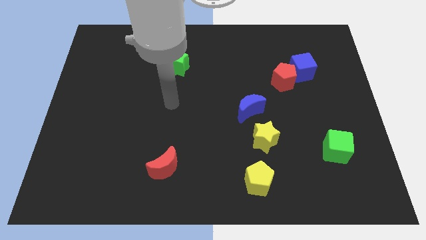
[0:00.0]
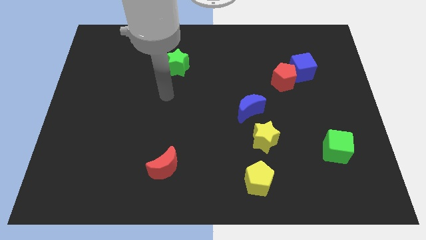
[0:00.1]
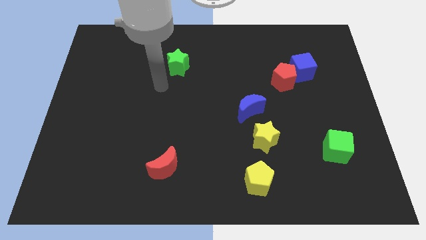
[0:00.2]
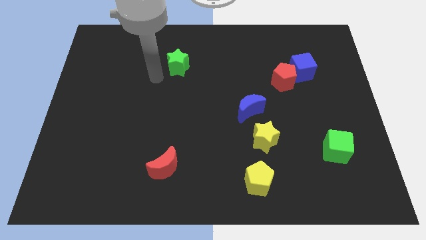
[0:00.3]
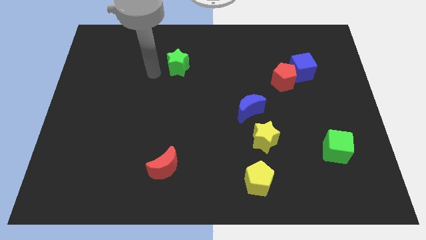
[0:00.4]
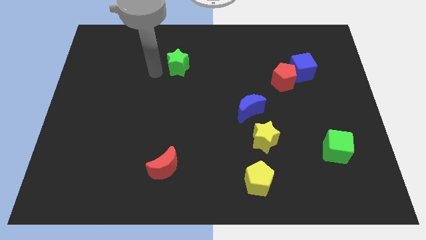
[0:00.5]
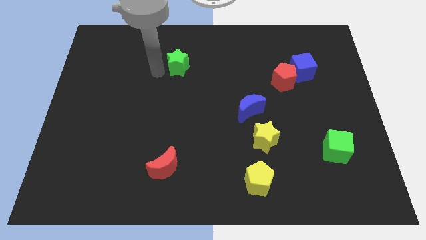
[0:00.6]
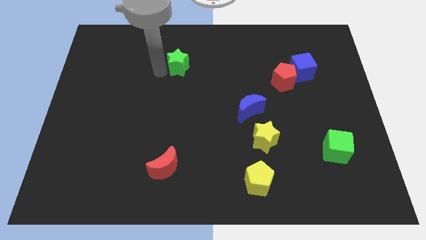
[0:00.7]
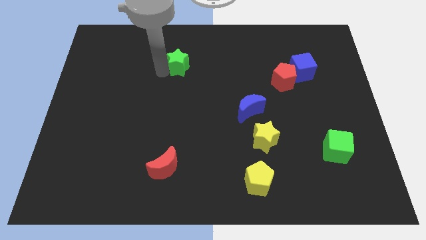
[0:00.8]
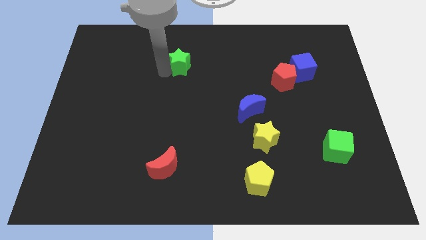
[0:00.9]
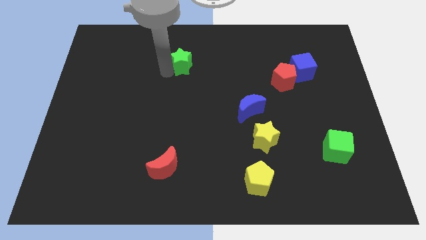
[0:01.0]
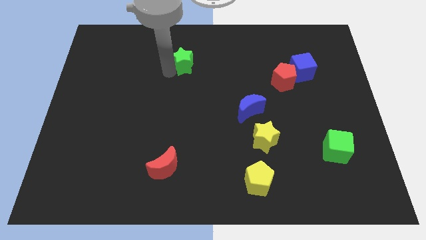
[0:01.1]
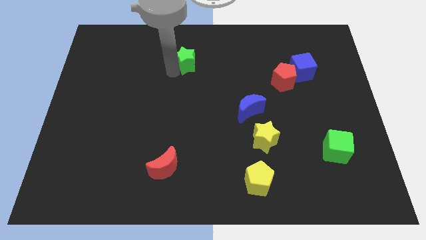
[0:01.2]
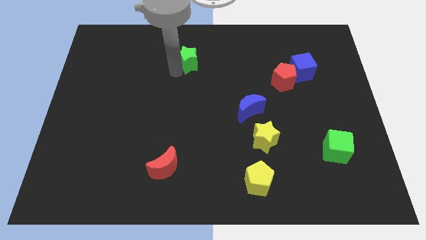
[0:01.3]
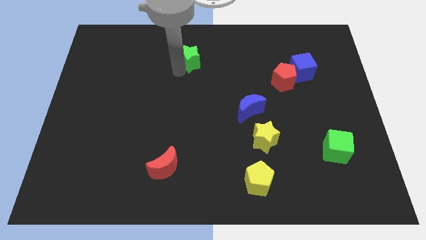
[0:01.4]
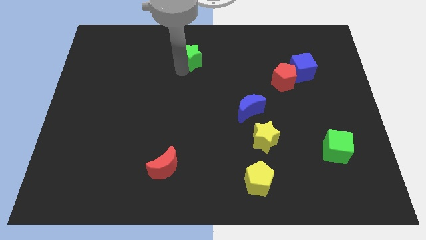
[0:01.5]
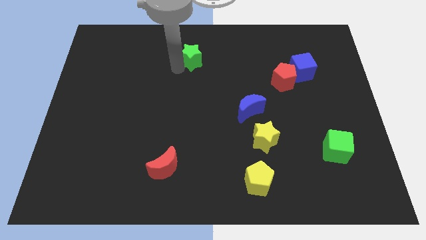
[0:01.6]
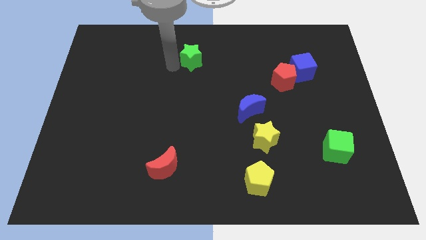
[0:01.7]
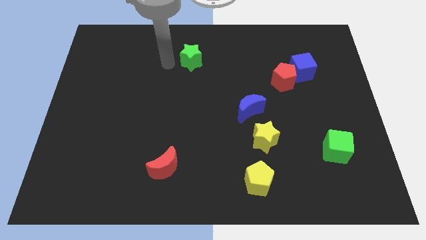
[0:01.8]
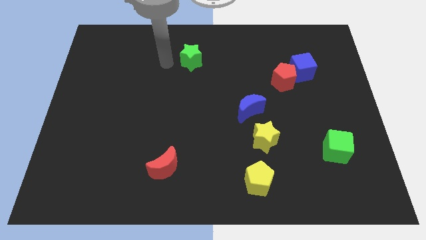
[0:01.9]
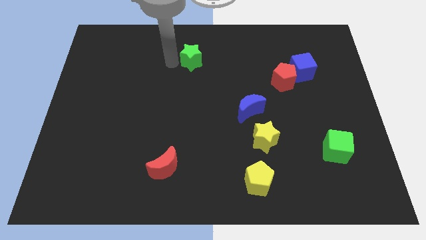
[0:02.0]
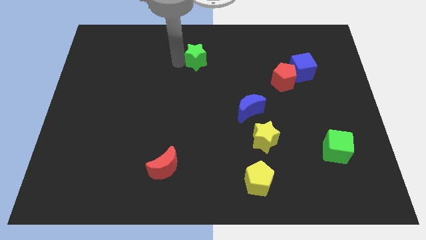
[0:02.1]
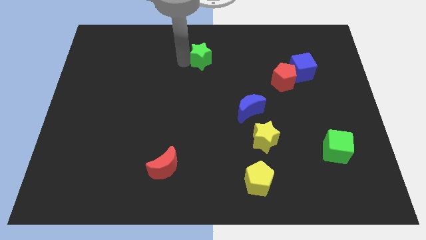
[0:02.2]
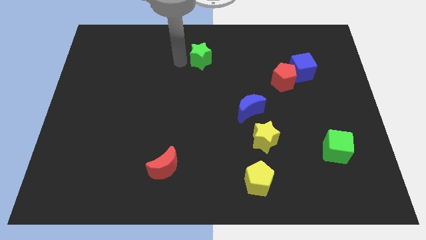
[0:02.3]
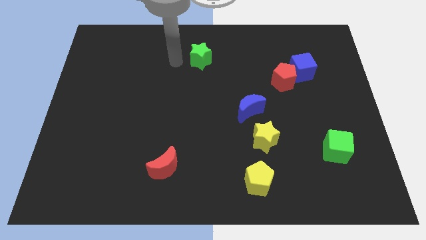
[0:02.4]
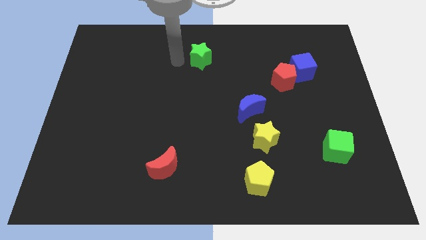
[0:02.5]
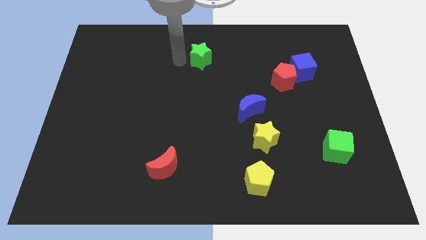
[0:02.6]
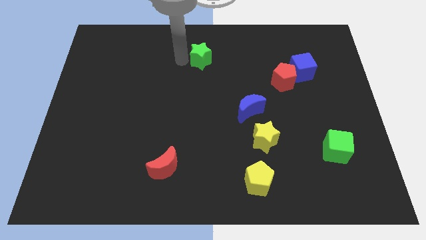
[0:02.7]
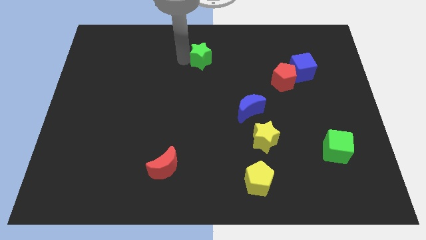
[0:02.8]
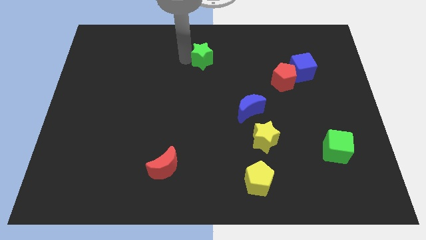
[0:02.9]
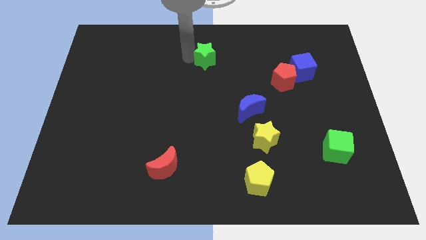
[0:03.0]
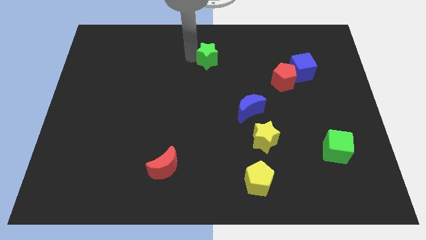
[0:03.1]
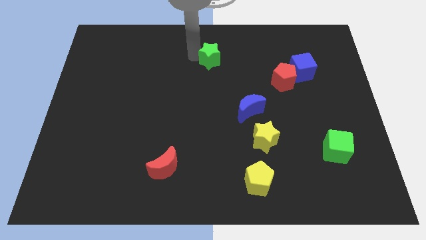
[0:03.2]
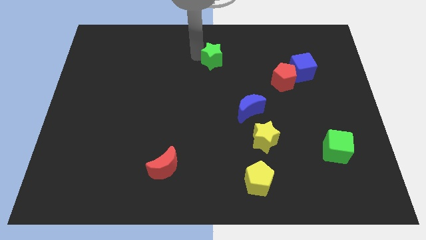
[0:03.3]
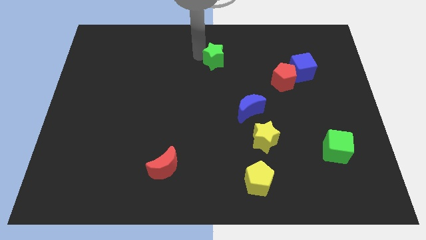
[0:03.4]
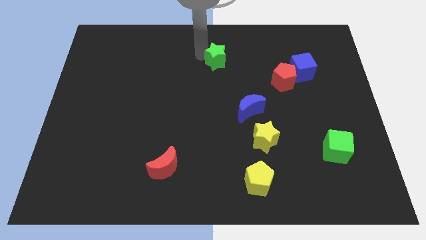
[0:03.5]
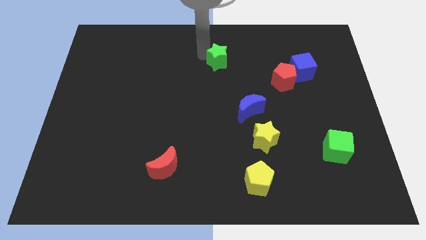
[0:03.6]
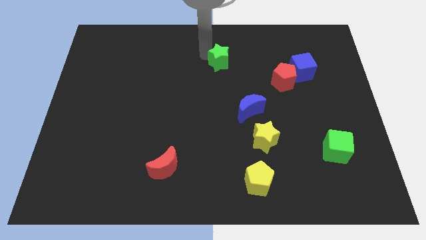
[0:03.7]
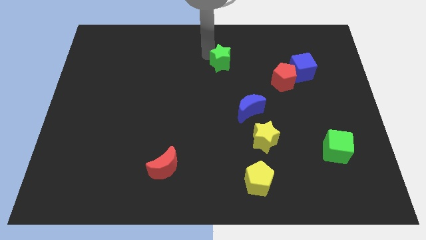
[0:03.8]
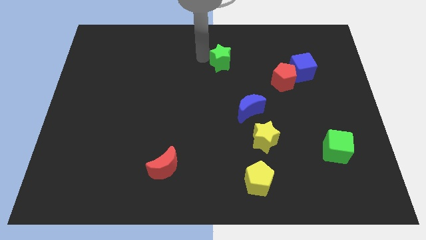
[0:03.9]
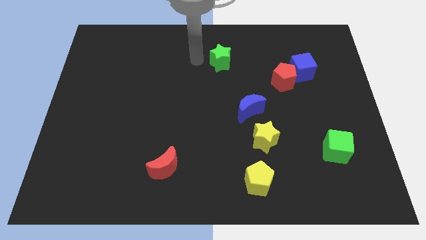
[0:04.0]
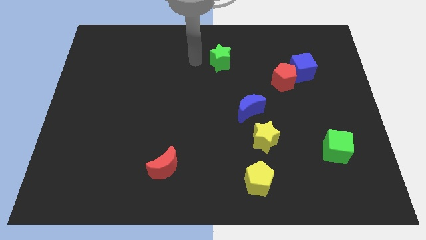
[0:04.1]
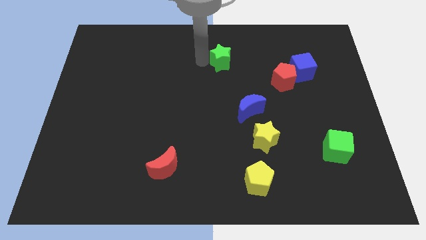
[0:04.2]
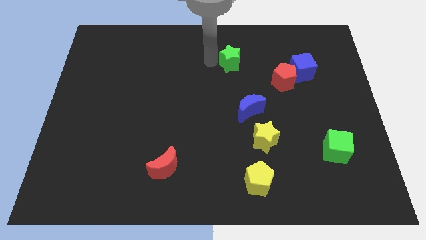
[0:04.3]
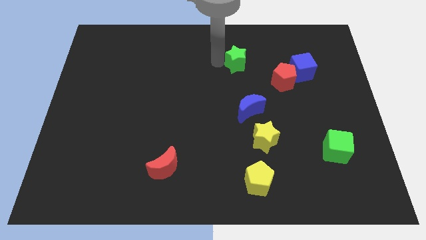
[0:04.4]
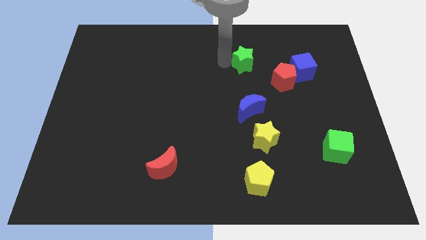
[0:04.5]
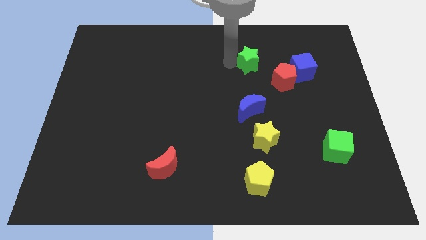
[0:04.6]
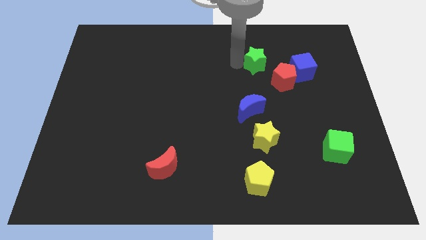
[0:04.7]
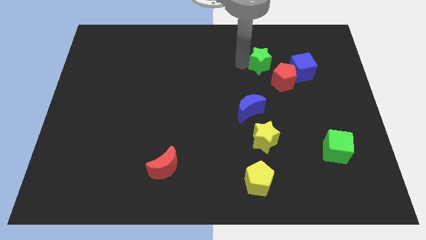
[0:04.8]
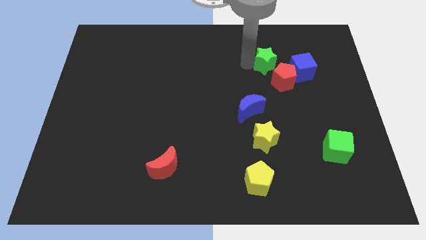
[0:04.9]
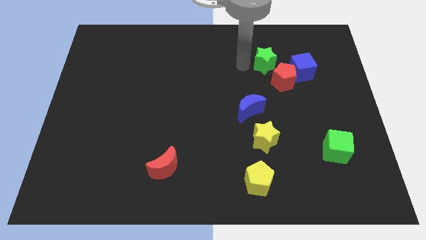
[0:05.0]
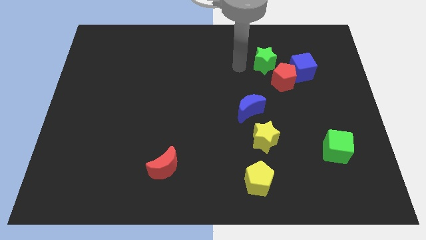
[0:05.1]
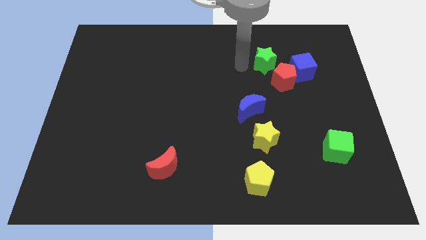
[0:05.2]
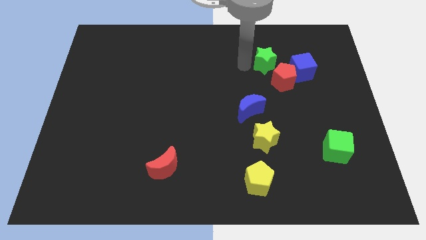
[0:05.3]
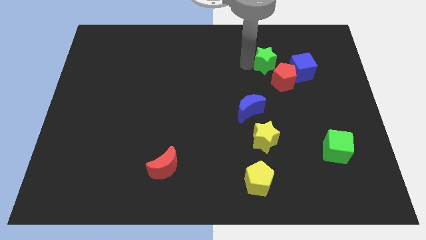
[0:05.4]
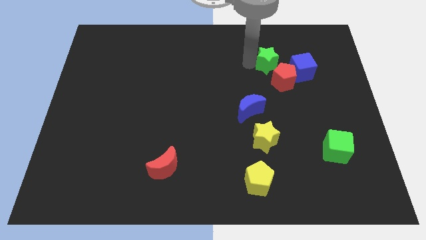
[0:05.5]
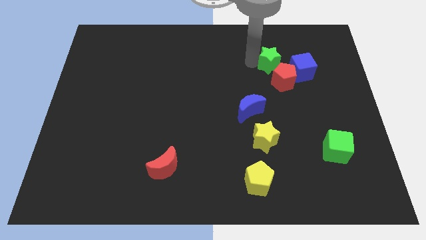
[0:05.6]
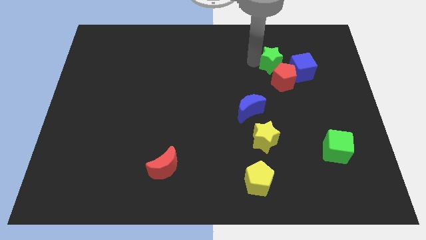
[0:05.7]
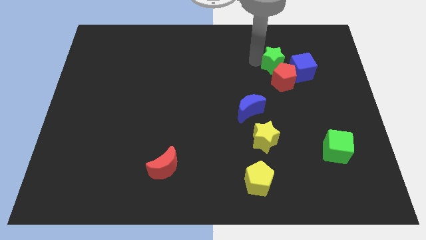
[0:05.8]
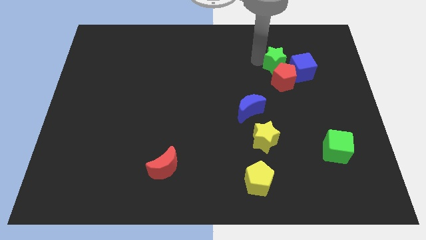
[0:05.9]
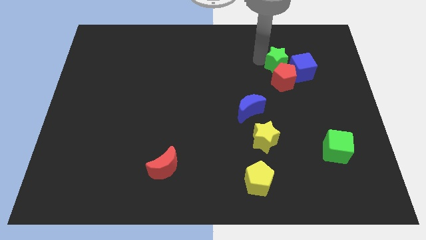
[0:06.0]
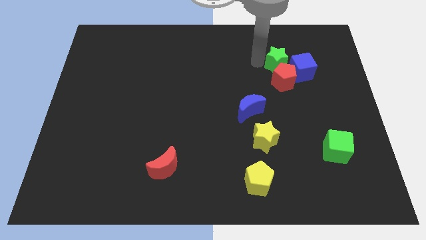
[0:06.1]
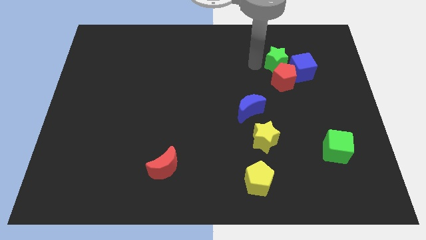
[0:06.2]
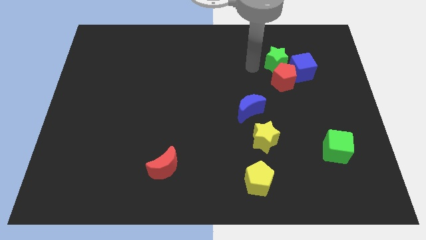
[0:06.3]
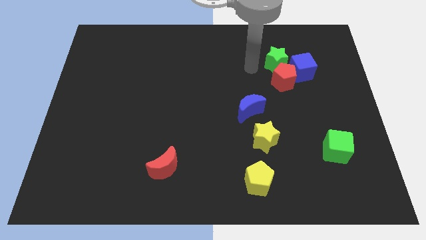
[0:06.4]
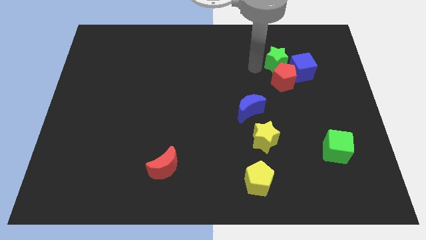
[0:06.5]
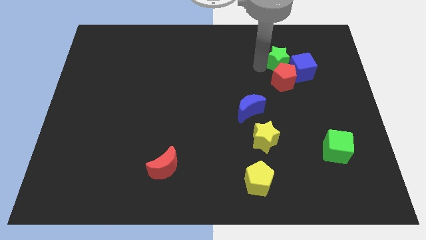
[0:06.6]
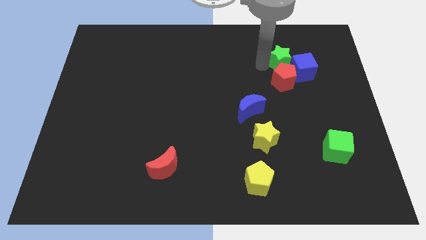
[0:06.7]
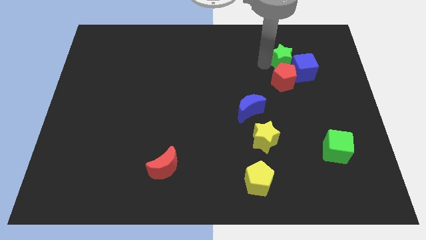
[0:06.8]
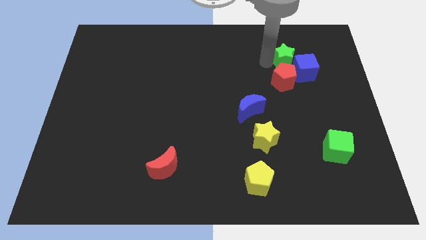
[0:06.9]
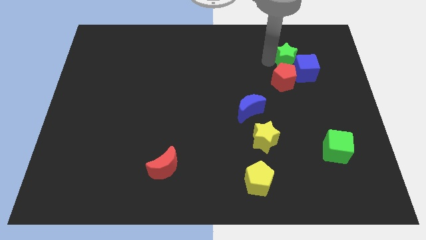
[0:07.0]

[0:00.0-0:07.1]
push the green star towards the blue cube

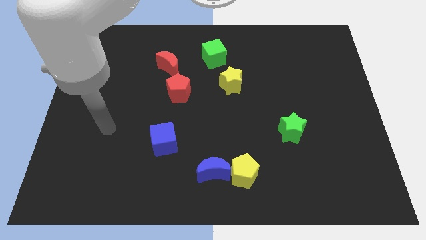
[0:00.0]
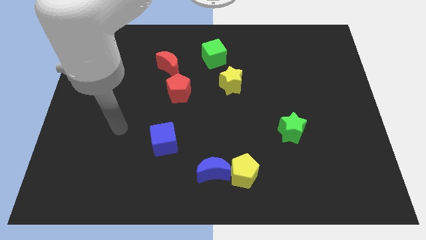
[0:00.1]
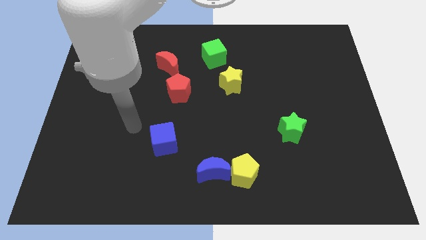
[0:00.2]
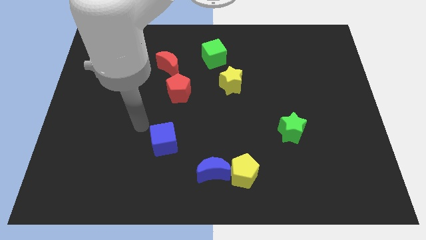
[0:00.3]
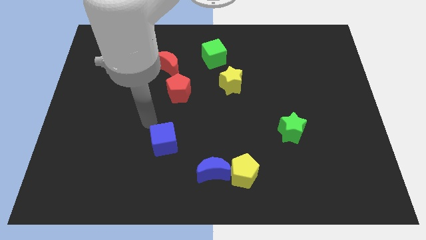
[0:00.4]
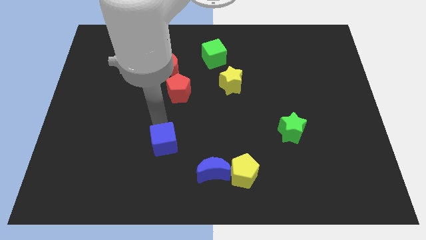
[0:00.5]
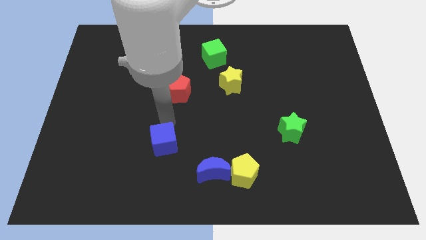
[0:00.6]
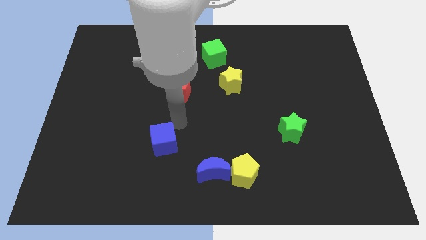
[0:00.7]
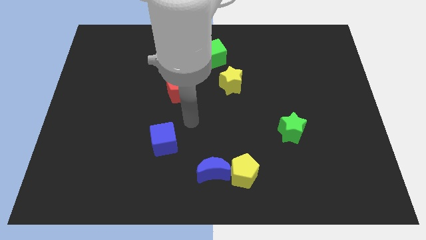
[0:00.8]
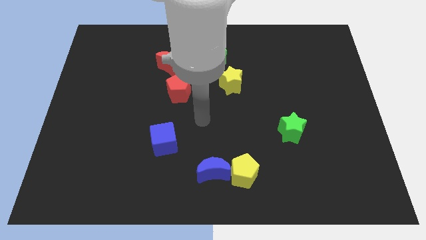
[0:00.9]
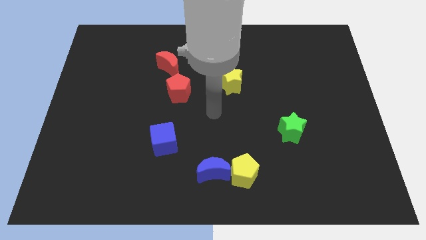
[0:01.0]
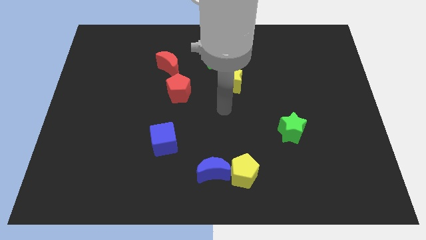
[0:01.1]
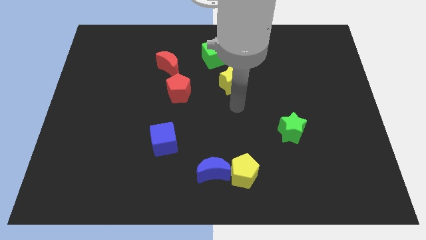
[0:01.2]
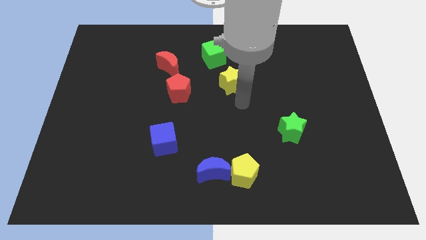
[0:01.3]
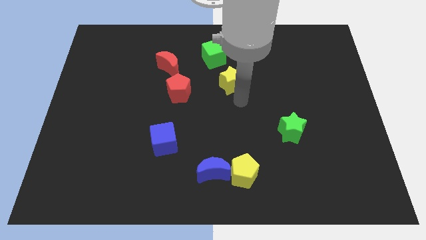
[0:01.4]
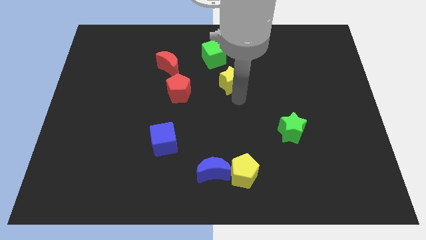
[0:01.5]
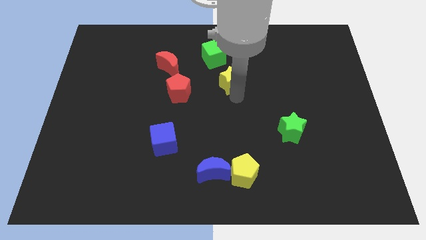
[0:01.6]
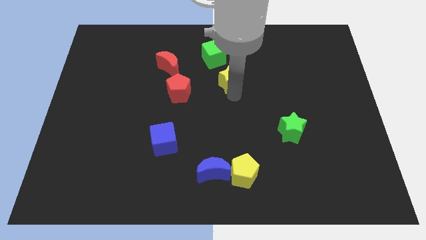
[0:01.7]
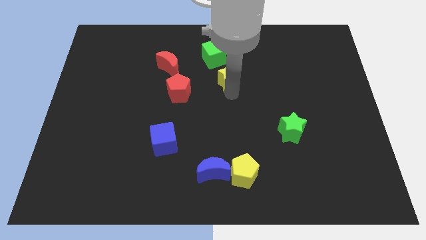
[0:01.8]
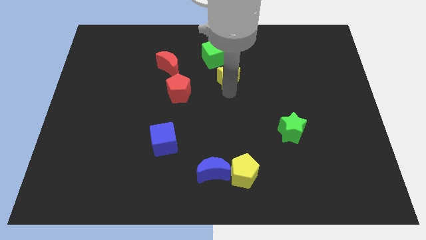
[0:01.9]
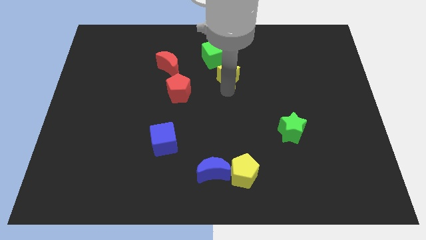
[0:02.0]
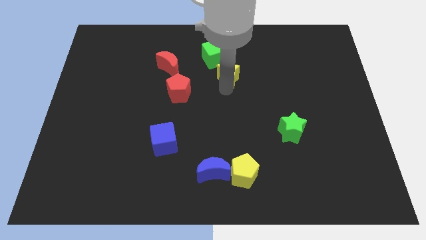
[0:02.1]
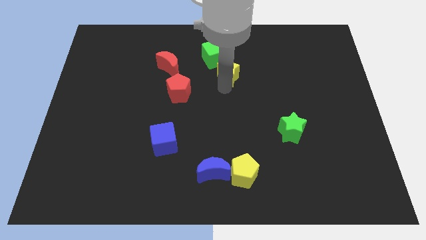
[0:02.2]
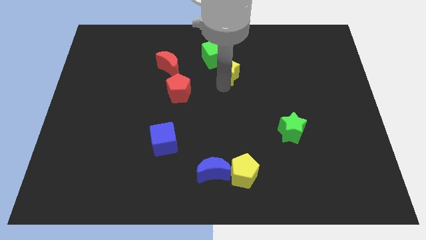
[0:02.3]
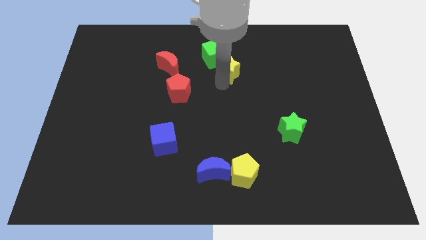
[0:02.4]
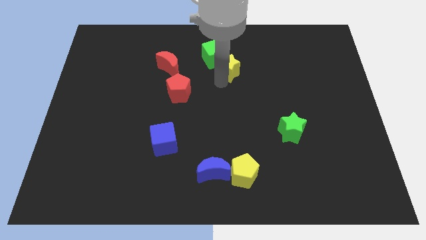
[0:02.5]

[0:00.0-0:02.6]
put the yellow star next to the green cube
